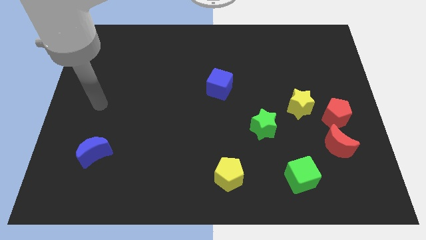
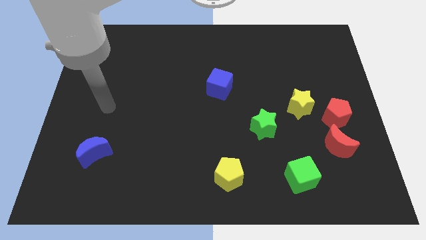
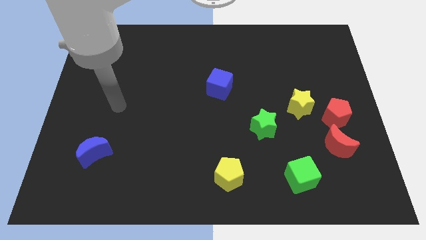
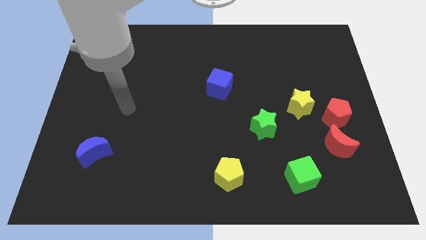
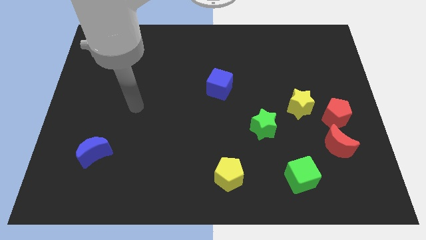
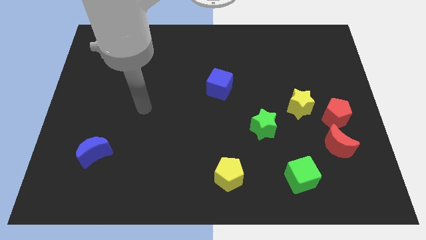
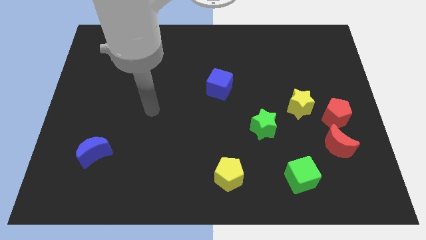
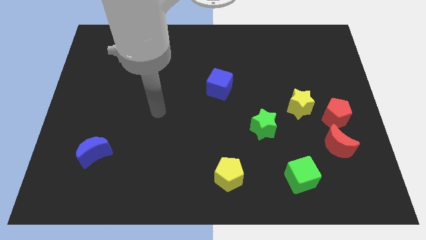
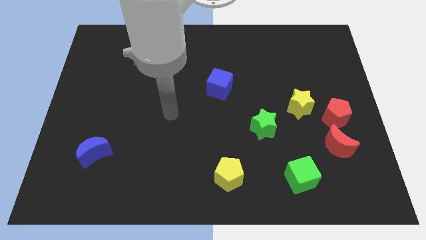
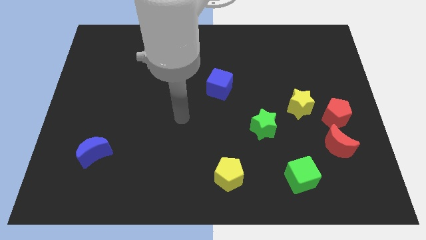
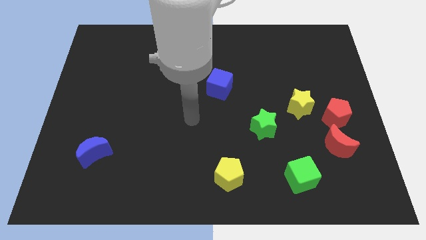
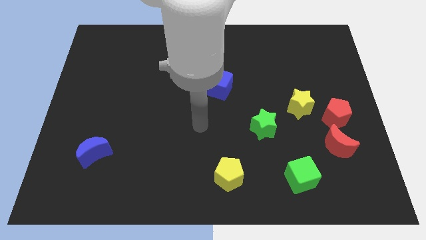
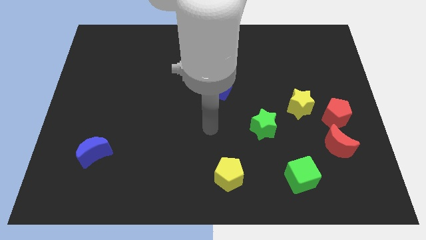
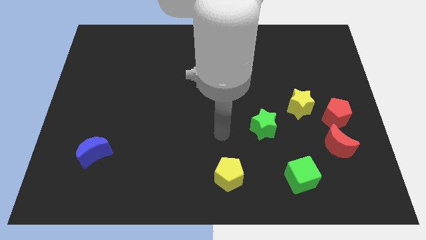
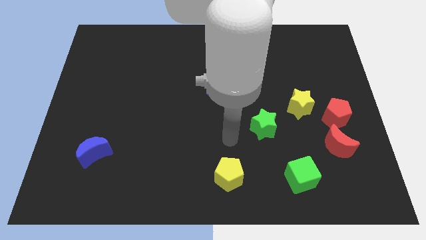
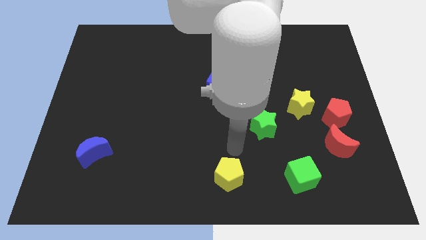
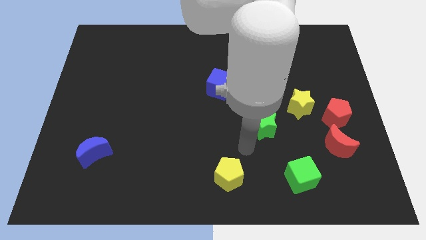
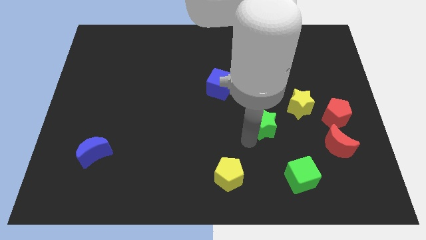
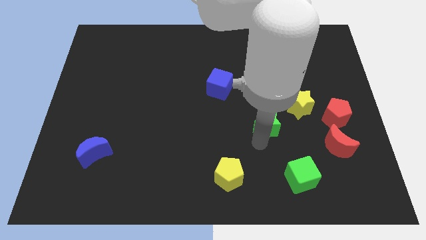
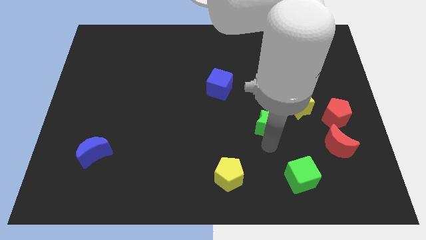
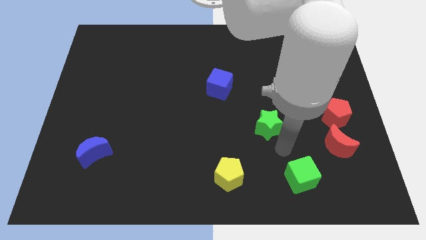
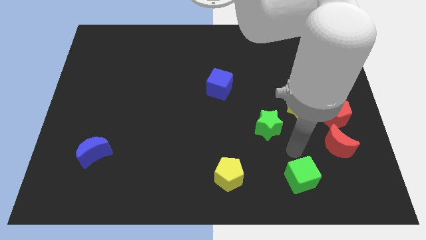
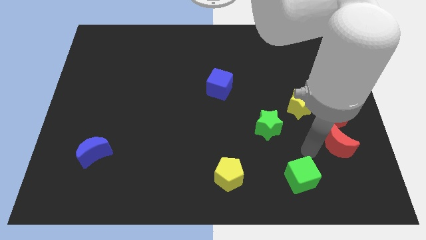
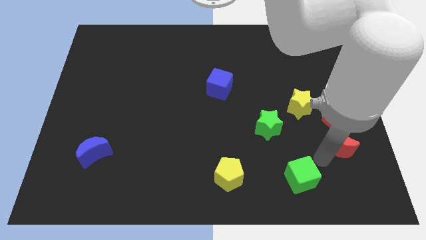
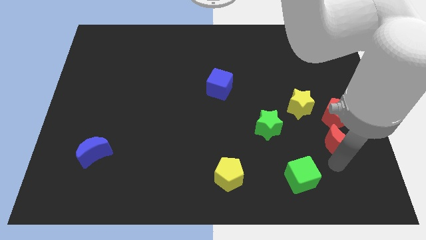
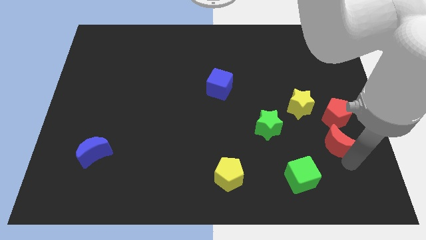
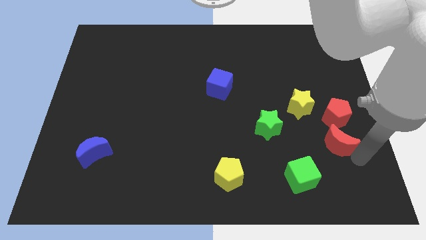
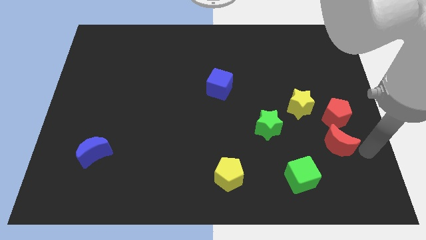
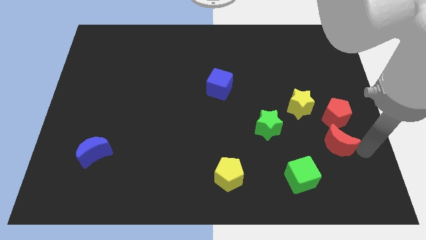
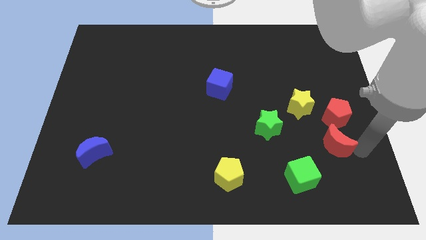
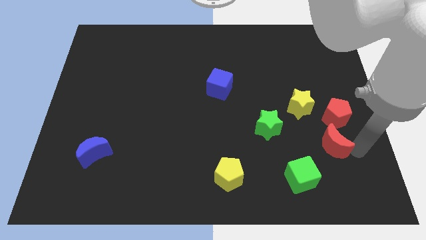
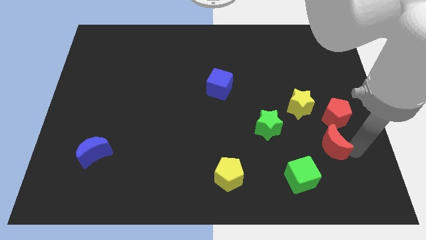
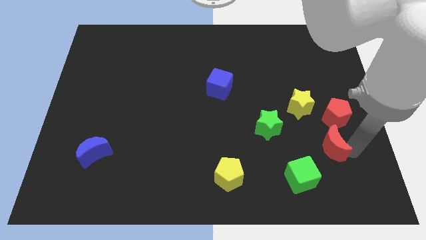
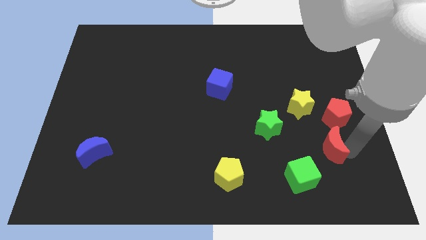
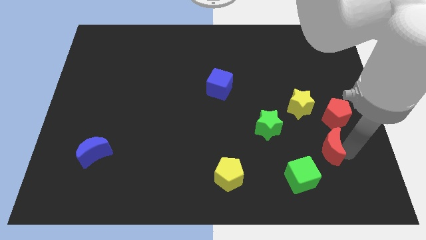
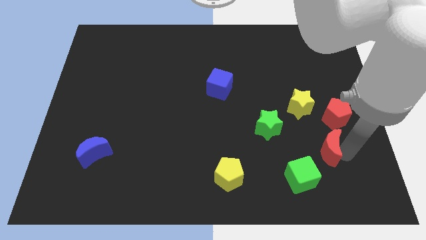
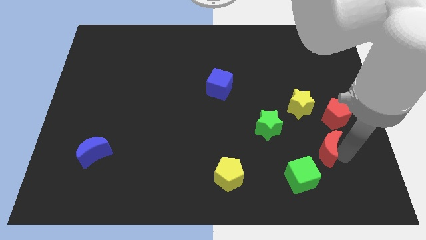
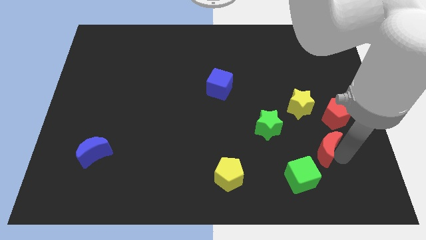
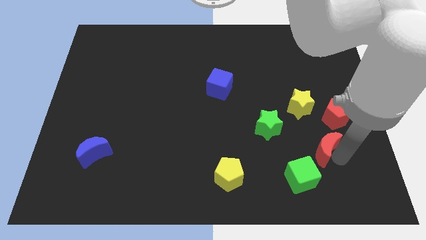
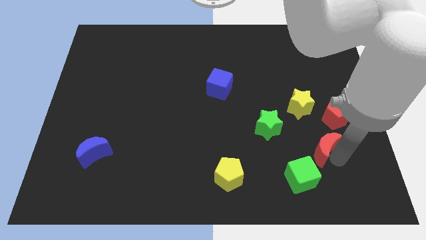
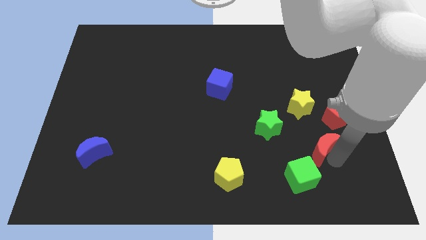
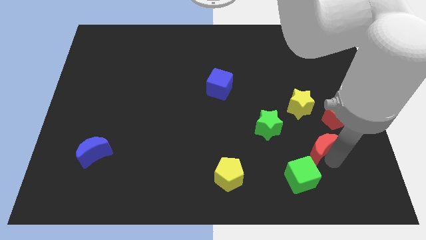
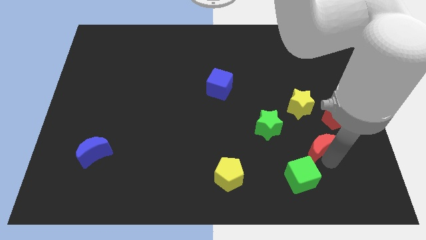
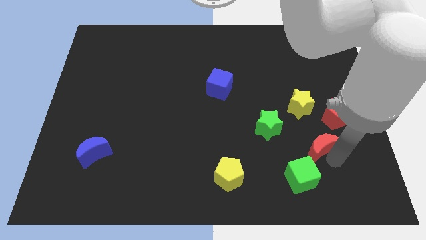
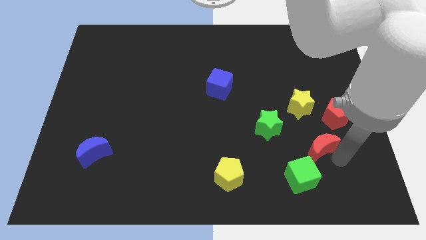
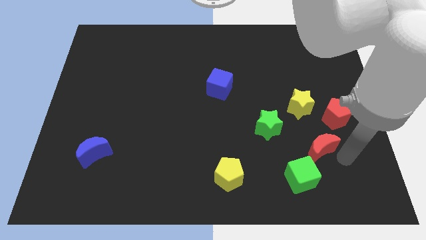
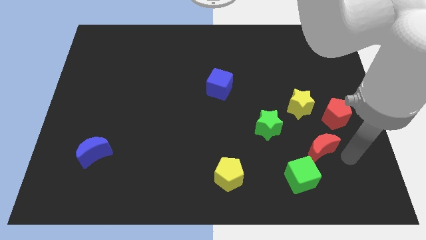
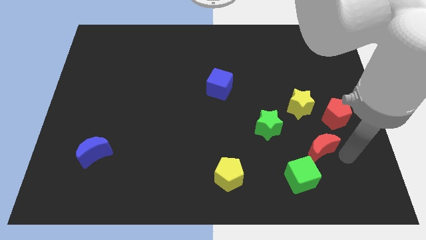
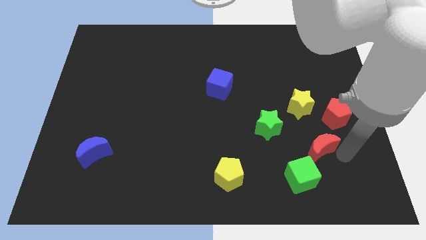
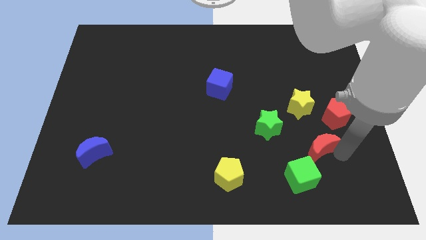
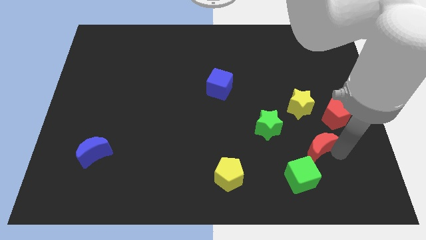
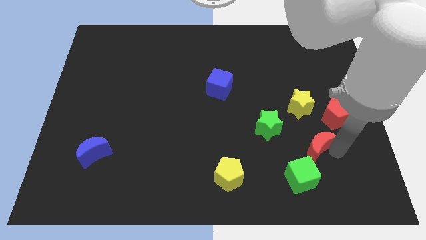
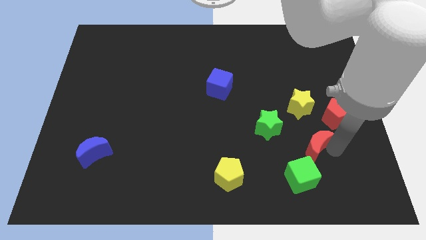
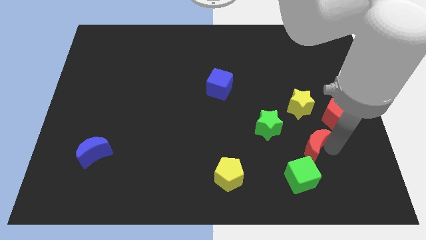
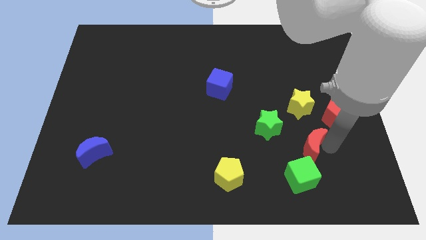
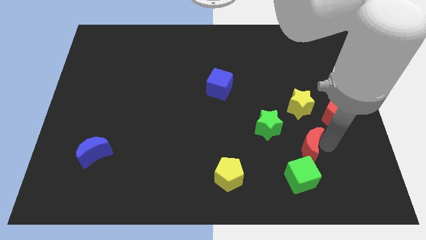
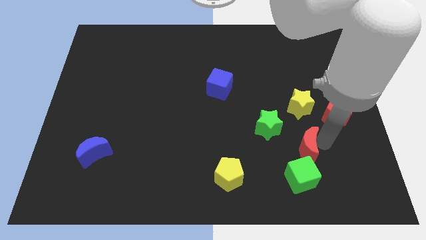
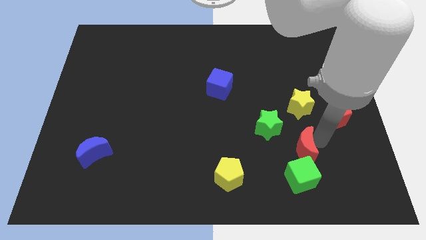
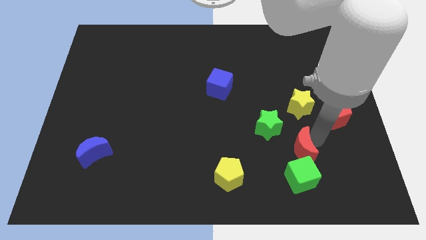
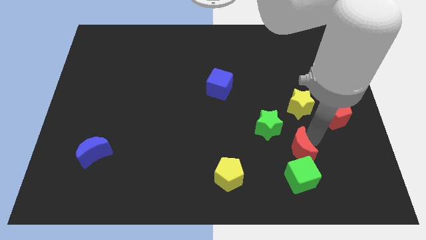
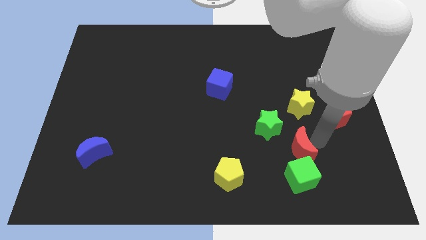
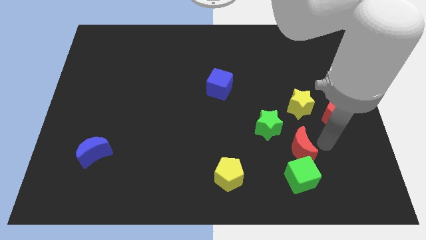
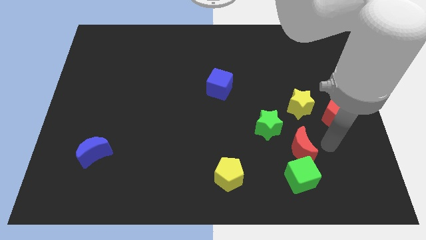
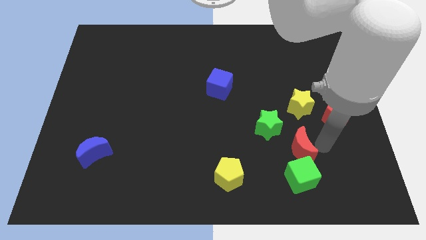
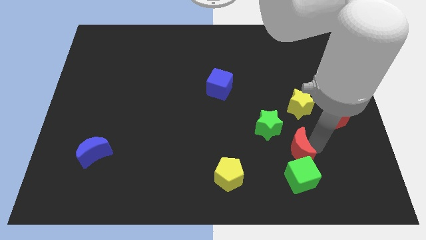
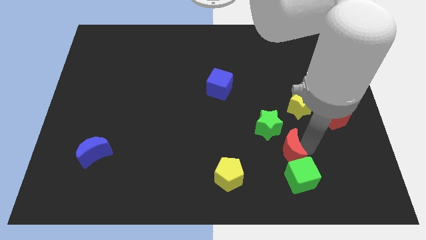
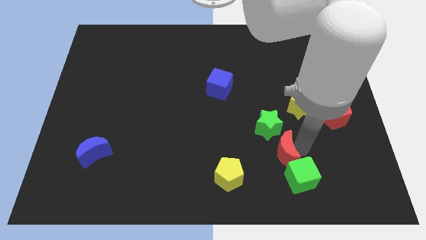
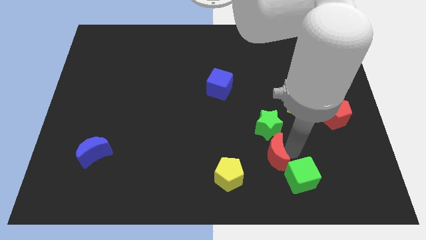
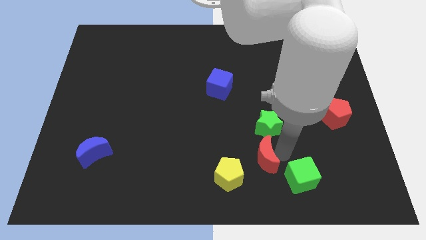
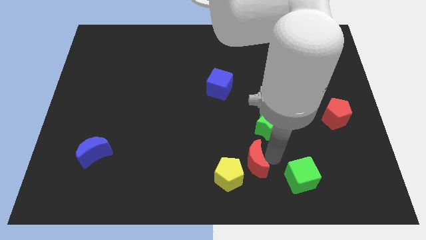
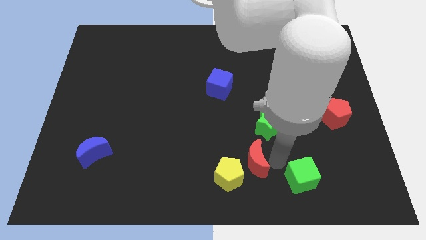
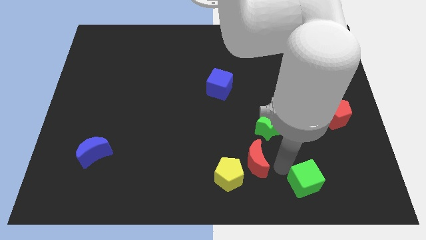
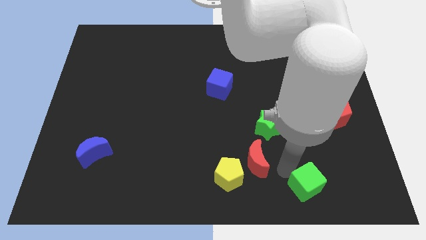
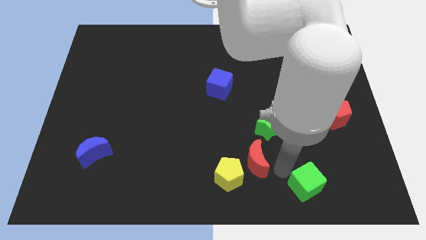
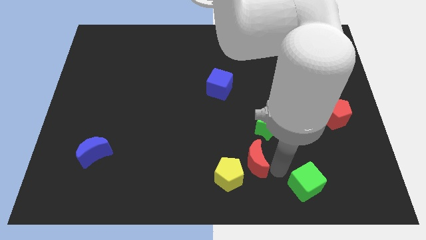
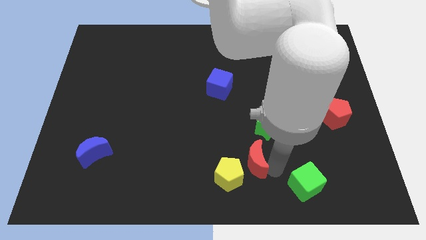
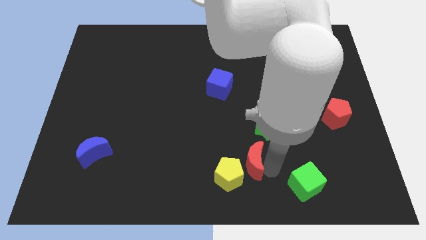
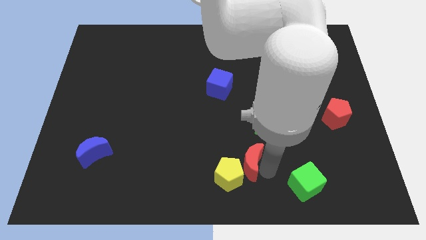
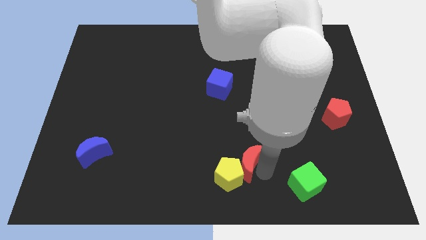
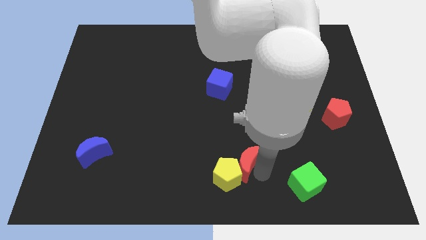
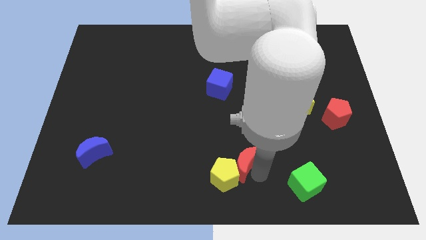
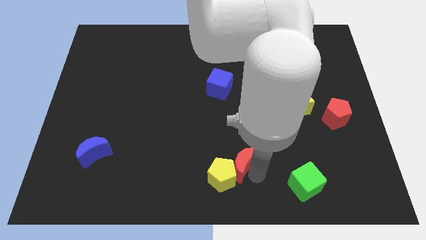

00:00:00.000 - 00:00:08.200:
move the red moon to the left
